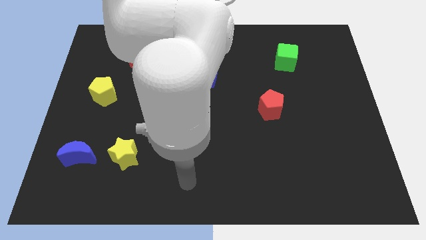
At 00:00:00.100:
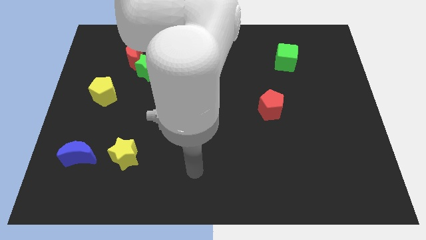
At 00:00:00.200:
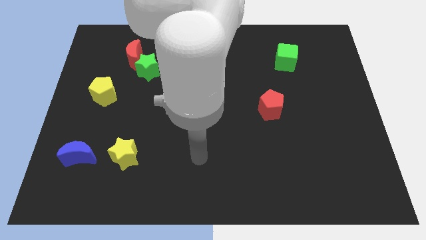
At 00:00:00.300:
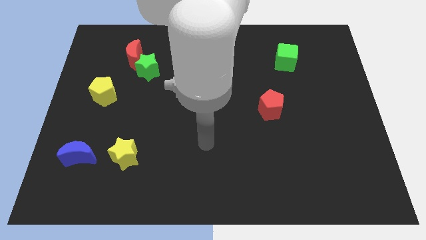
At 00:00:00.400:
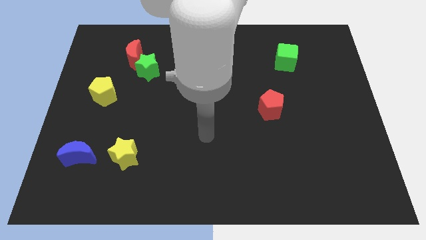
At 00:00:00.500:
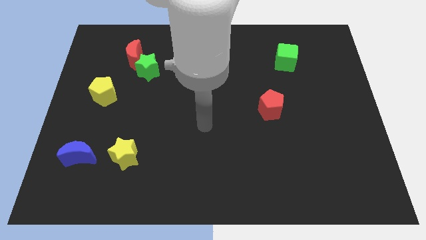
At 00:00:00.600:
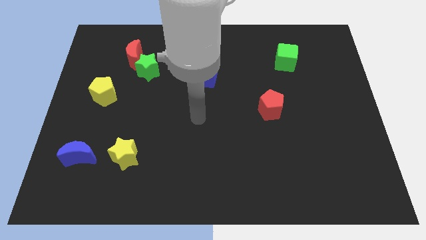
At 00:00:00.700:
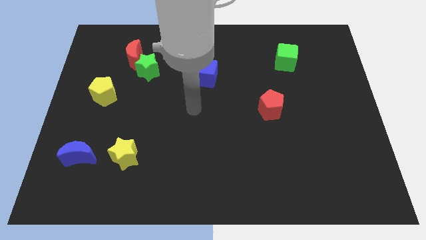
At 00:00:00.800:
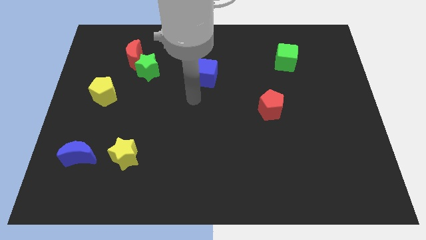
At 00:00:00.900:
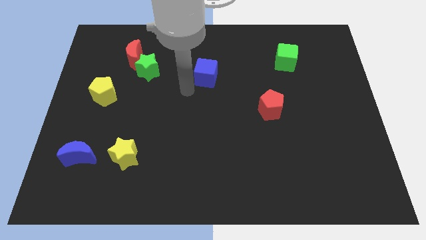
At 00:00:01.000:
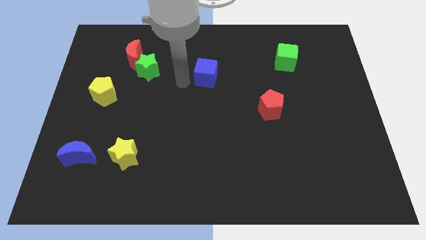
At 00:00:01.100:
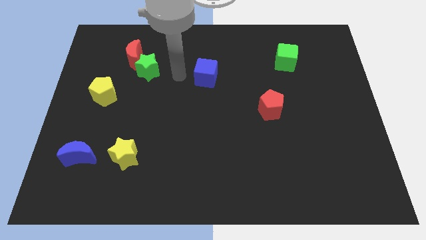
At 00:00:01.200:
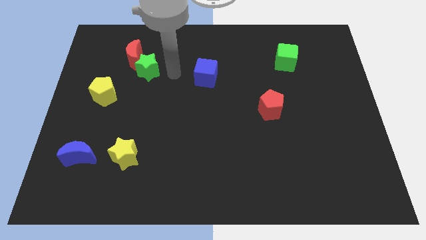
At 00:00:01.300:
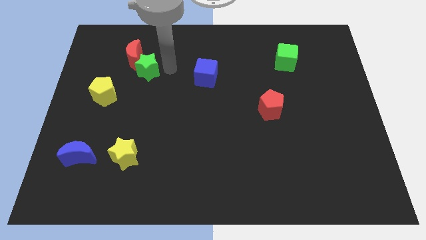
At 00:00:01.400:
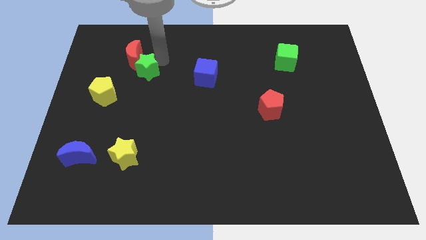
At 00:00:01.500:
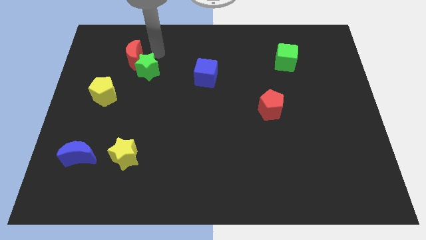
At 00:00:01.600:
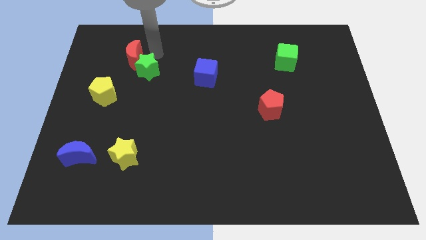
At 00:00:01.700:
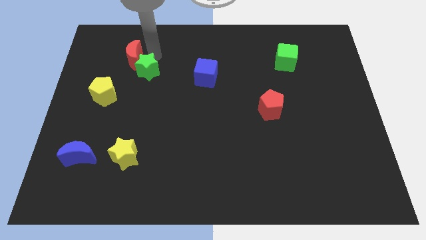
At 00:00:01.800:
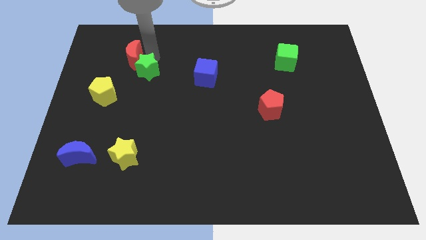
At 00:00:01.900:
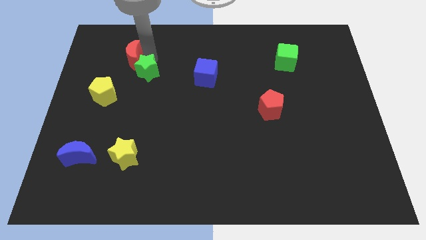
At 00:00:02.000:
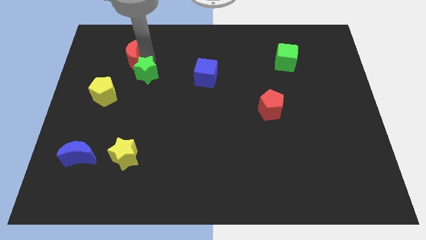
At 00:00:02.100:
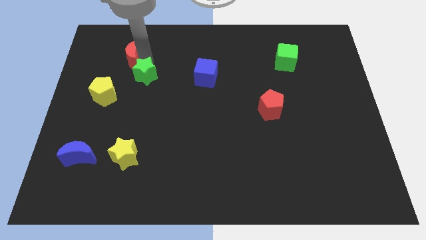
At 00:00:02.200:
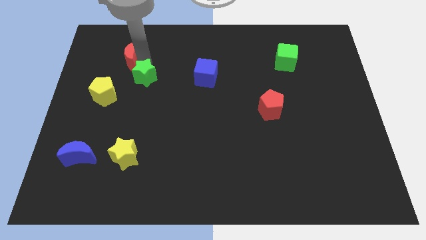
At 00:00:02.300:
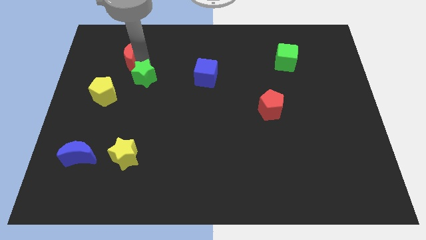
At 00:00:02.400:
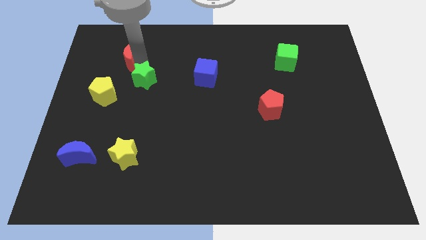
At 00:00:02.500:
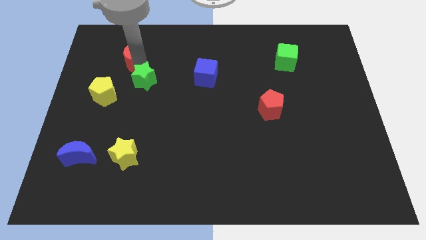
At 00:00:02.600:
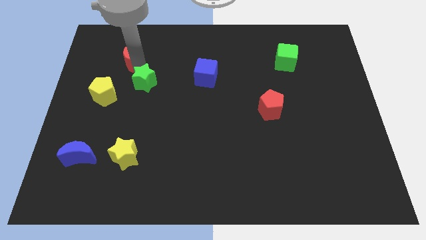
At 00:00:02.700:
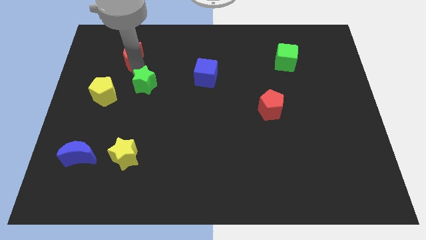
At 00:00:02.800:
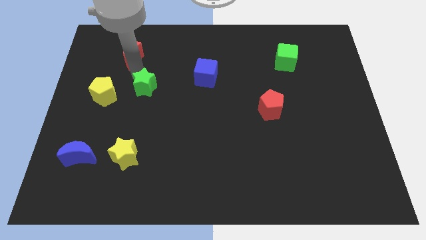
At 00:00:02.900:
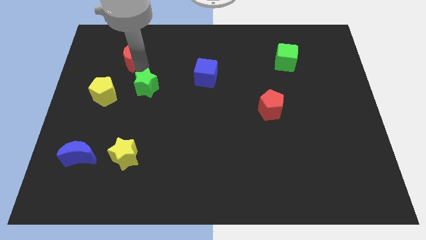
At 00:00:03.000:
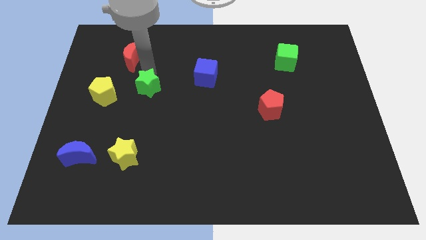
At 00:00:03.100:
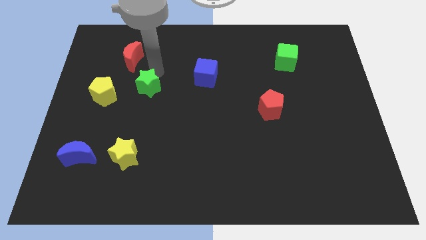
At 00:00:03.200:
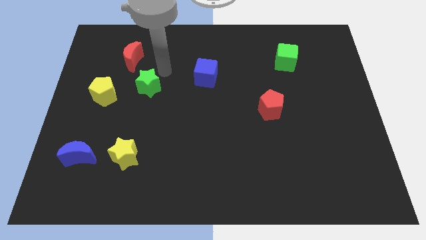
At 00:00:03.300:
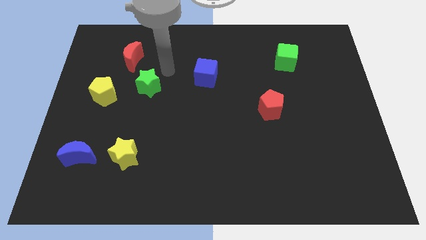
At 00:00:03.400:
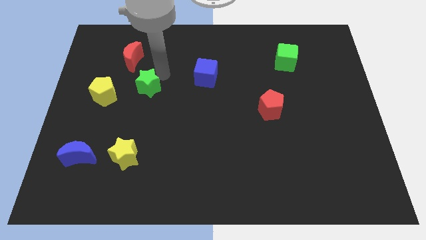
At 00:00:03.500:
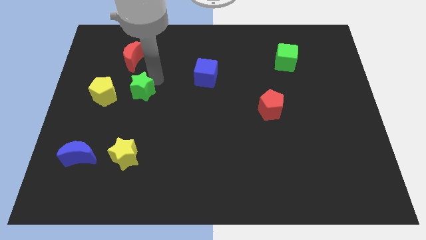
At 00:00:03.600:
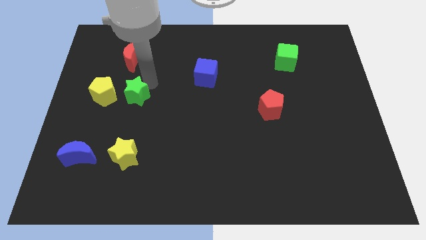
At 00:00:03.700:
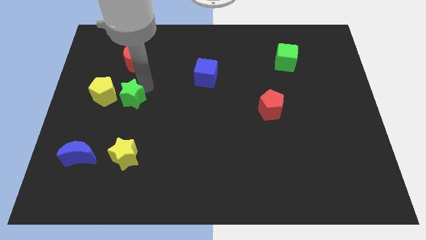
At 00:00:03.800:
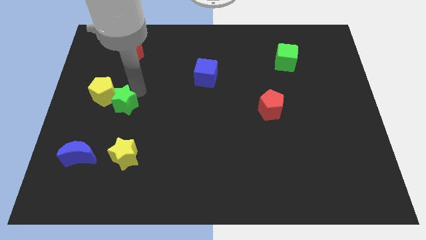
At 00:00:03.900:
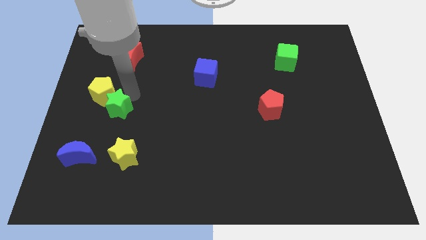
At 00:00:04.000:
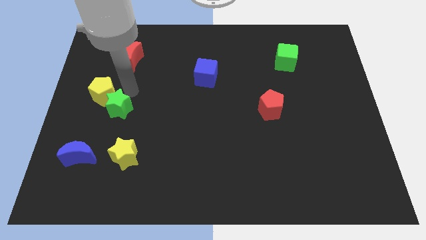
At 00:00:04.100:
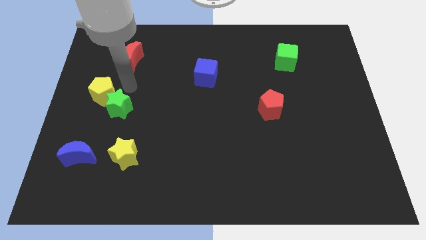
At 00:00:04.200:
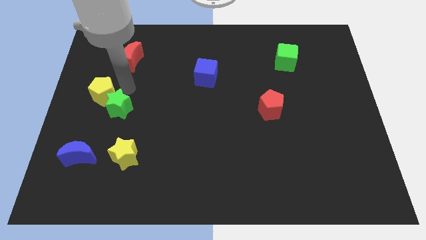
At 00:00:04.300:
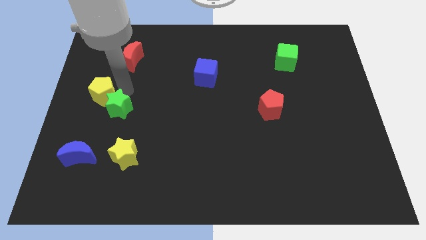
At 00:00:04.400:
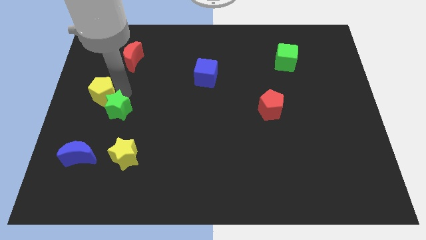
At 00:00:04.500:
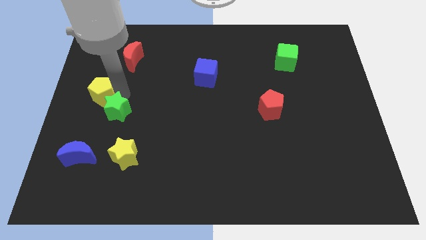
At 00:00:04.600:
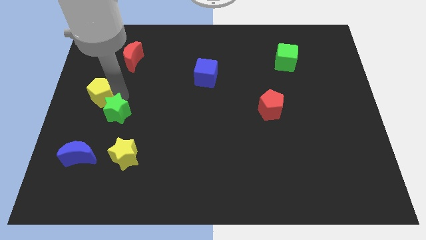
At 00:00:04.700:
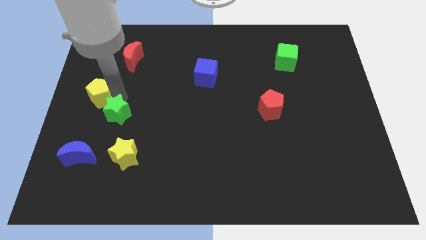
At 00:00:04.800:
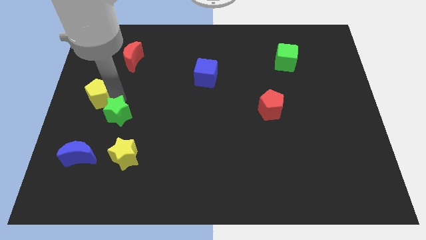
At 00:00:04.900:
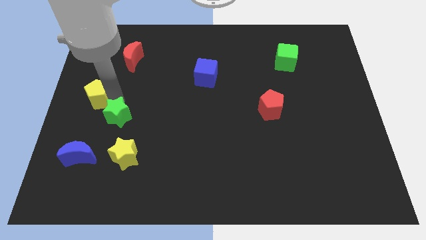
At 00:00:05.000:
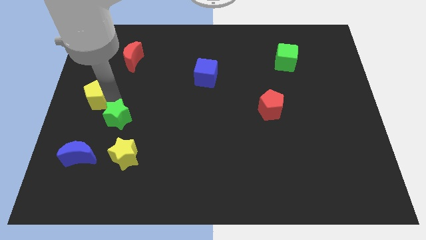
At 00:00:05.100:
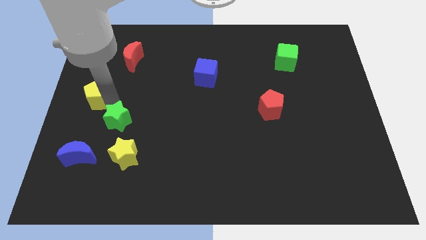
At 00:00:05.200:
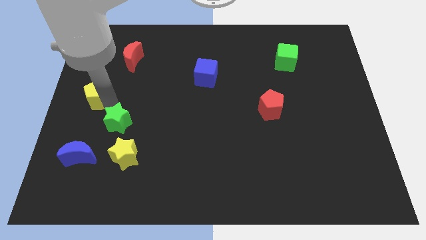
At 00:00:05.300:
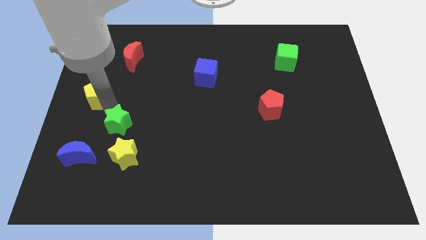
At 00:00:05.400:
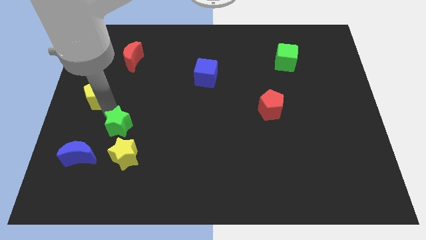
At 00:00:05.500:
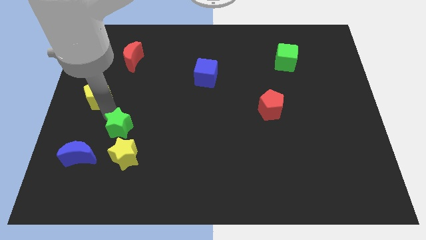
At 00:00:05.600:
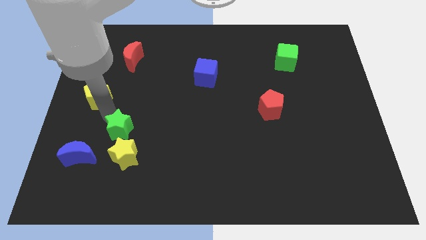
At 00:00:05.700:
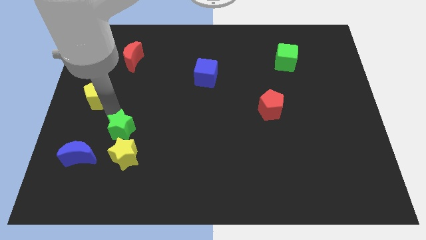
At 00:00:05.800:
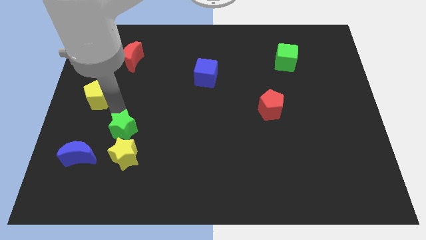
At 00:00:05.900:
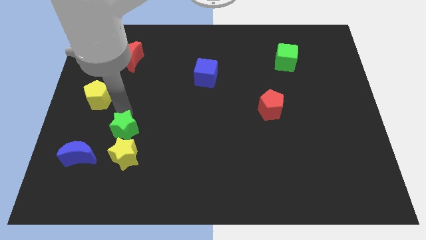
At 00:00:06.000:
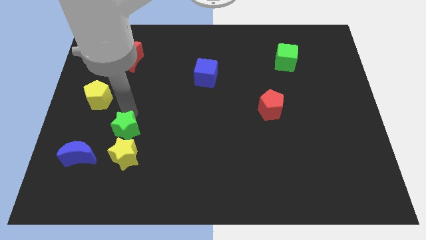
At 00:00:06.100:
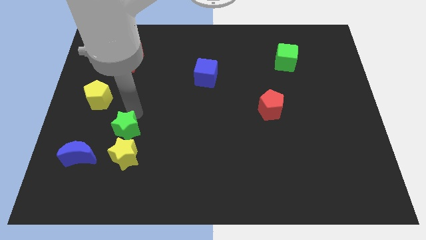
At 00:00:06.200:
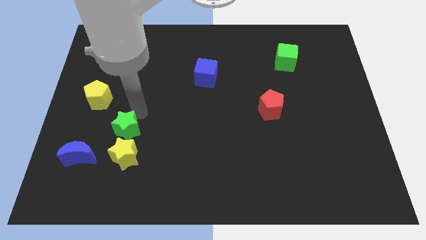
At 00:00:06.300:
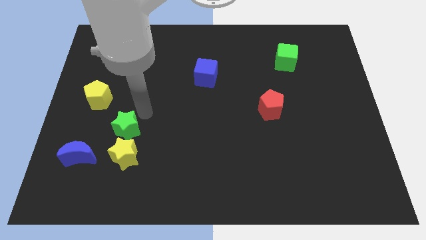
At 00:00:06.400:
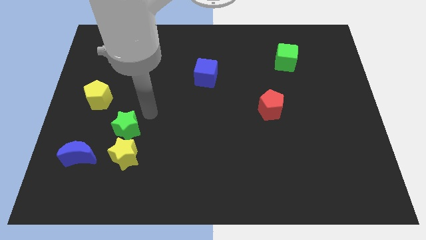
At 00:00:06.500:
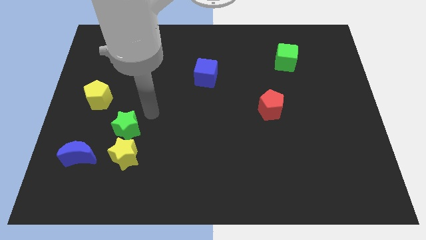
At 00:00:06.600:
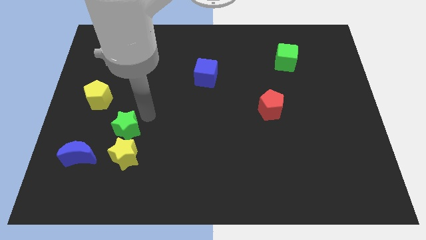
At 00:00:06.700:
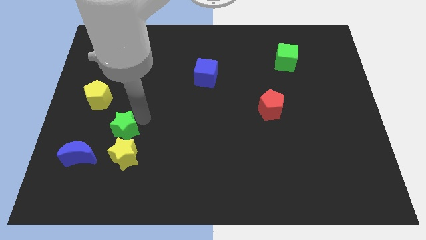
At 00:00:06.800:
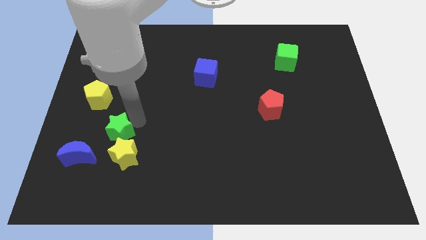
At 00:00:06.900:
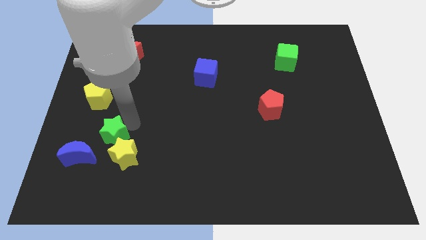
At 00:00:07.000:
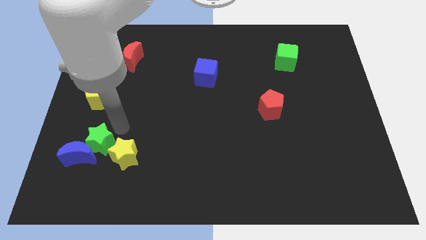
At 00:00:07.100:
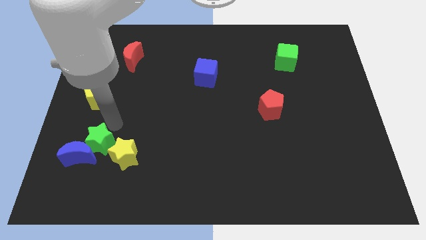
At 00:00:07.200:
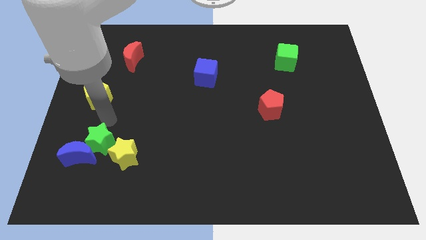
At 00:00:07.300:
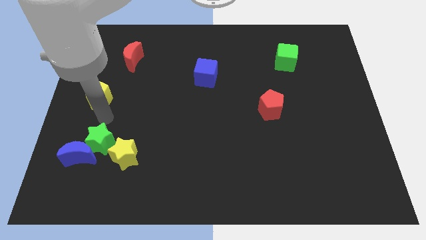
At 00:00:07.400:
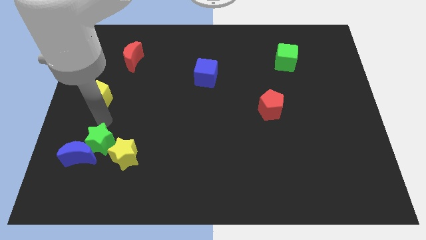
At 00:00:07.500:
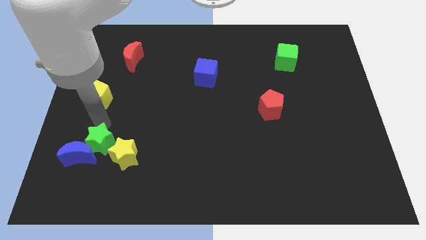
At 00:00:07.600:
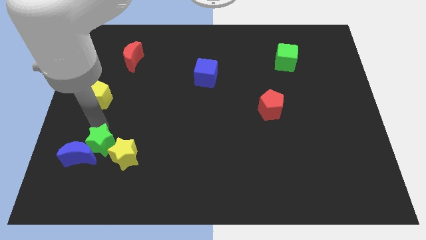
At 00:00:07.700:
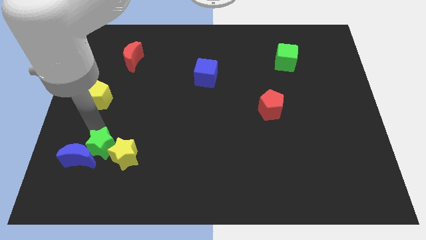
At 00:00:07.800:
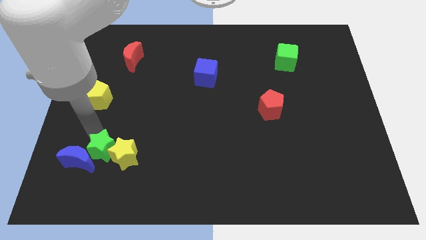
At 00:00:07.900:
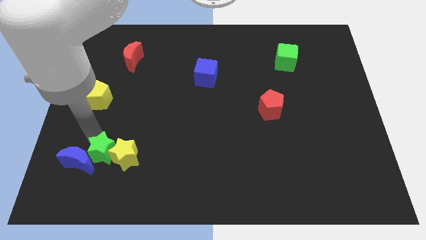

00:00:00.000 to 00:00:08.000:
put the green star to the bottom left side of the yellow star
